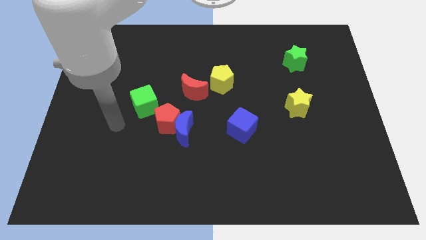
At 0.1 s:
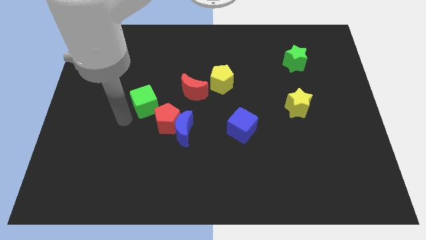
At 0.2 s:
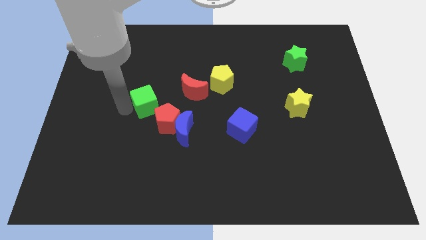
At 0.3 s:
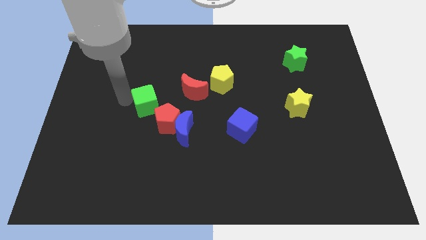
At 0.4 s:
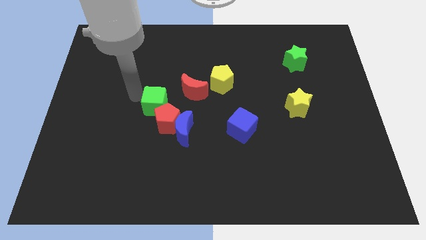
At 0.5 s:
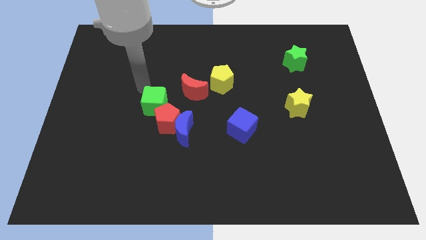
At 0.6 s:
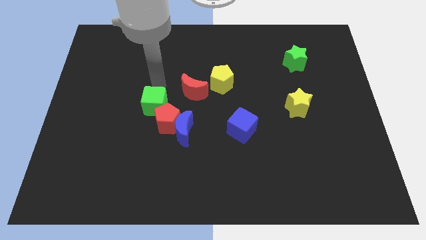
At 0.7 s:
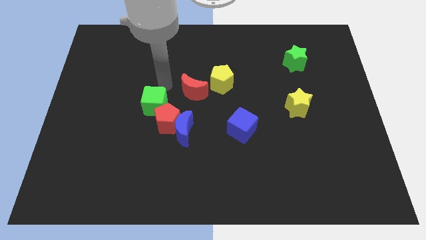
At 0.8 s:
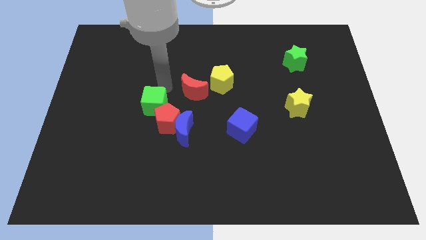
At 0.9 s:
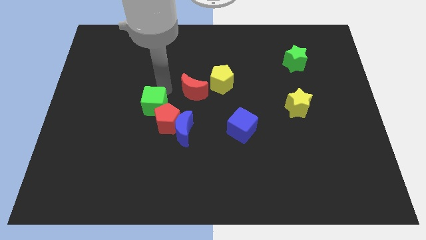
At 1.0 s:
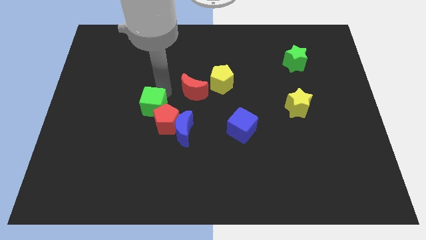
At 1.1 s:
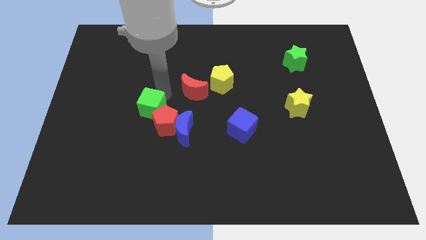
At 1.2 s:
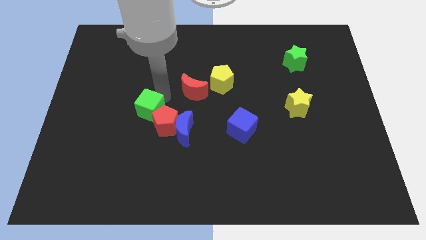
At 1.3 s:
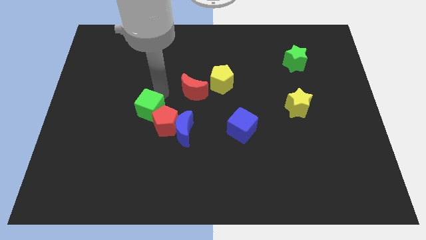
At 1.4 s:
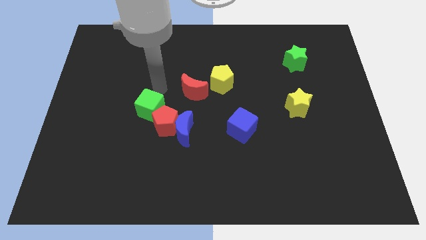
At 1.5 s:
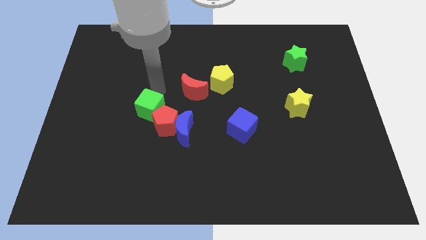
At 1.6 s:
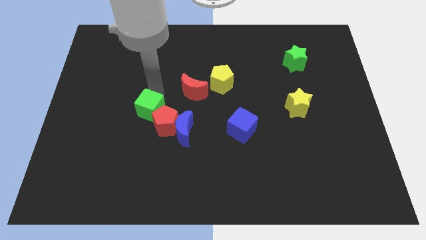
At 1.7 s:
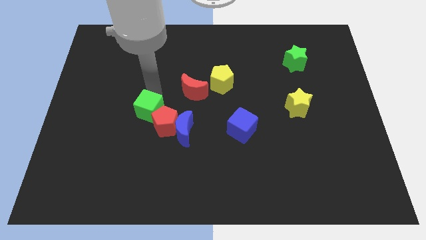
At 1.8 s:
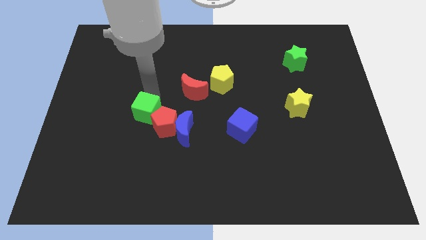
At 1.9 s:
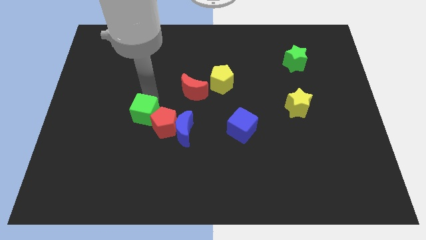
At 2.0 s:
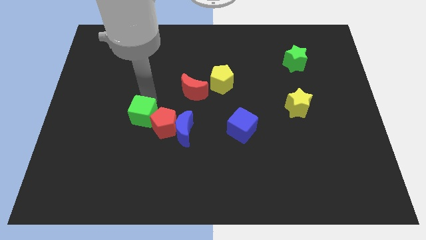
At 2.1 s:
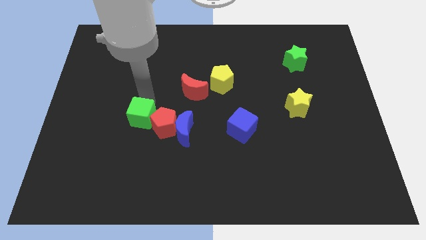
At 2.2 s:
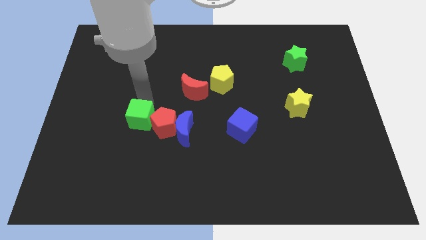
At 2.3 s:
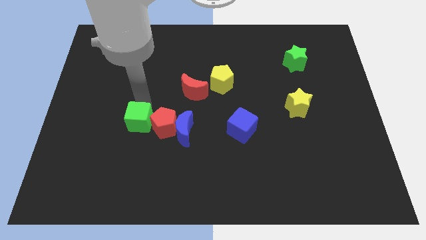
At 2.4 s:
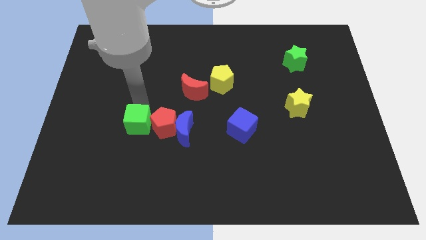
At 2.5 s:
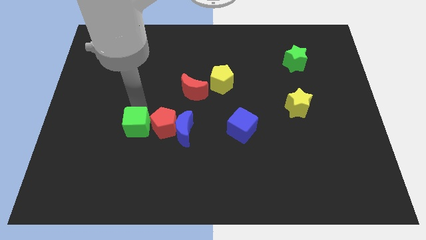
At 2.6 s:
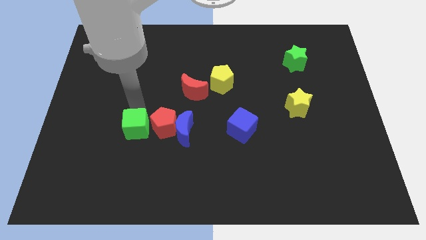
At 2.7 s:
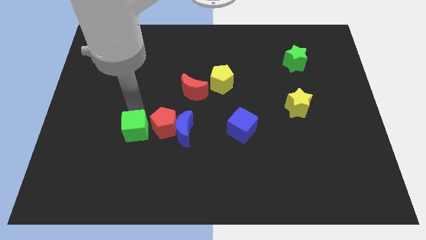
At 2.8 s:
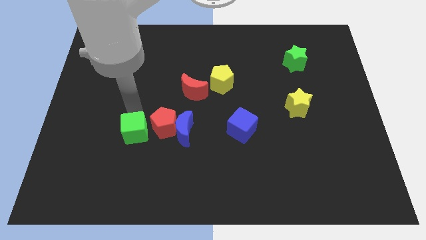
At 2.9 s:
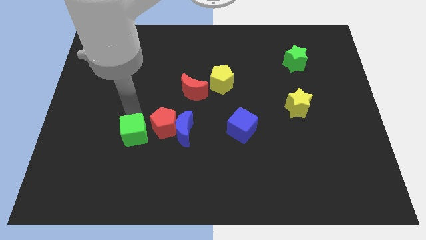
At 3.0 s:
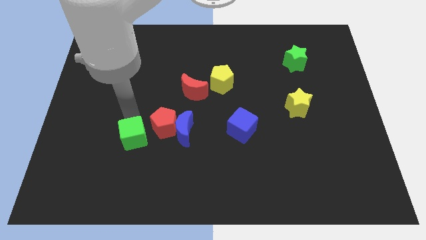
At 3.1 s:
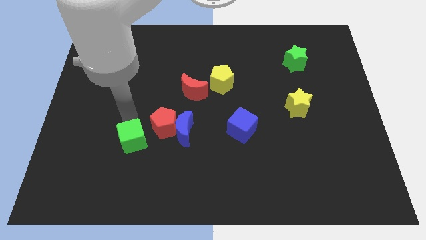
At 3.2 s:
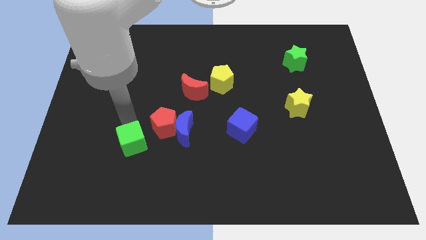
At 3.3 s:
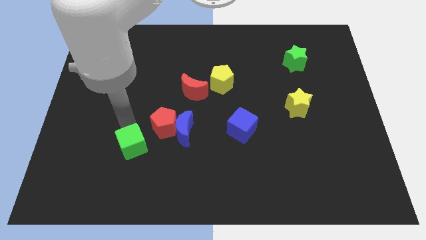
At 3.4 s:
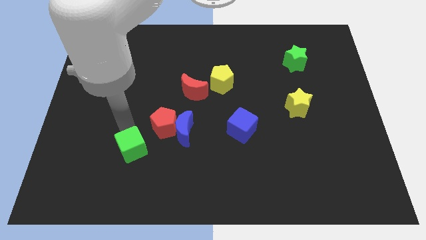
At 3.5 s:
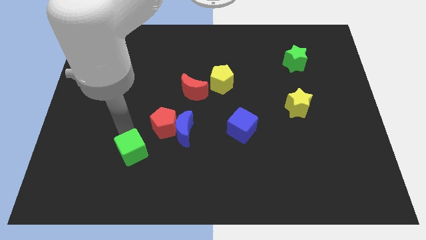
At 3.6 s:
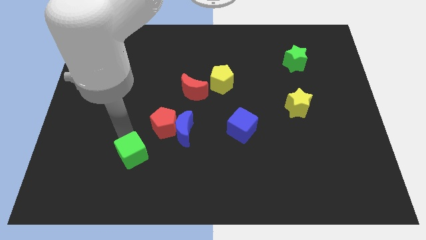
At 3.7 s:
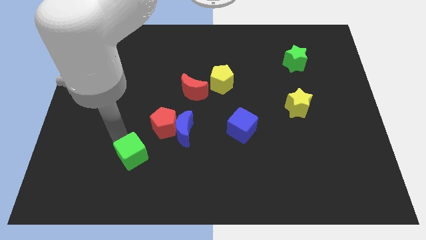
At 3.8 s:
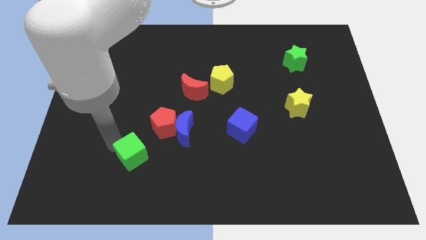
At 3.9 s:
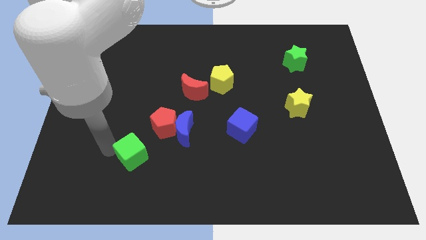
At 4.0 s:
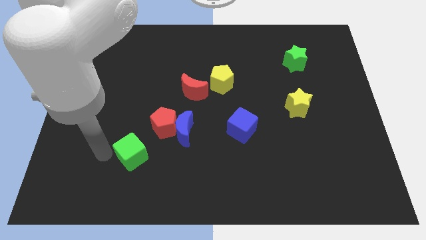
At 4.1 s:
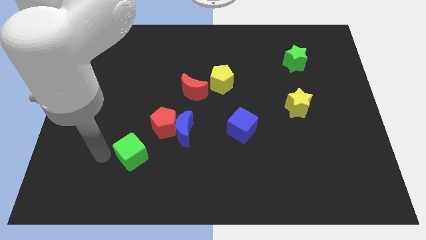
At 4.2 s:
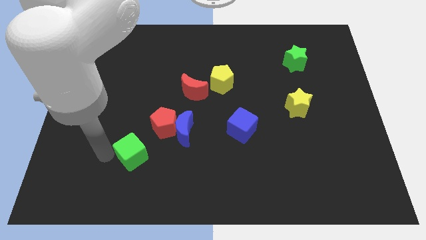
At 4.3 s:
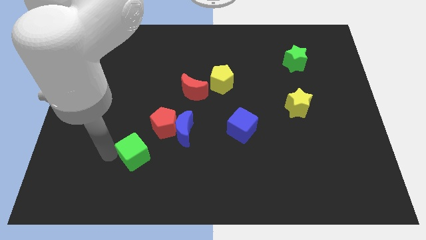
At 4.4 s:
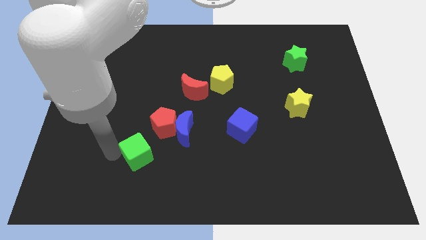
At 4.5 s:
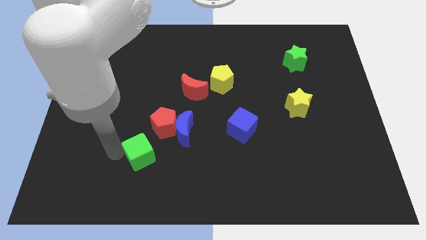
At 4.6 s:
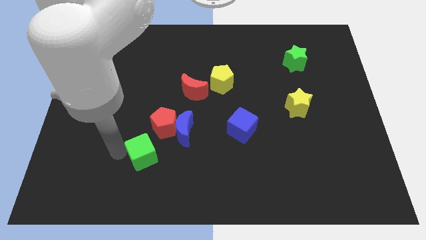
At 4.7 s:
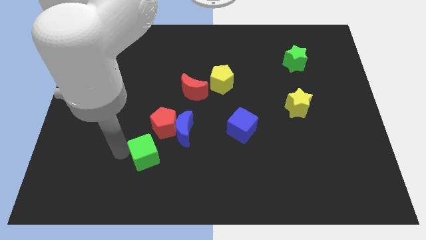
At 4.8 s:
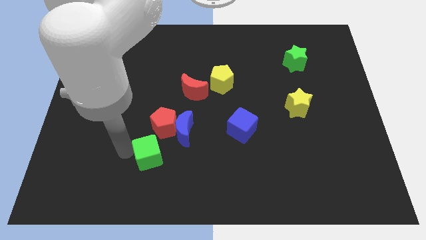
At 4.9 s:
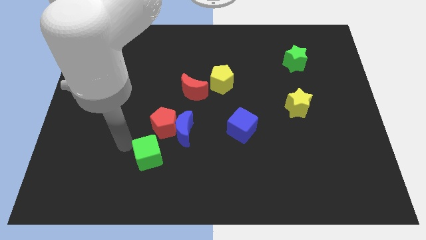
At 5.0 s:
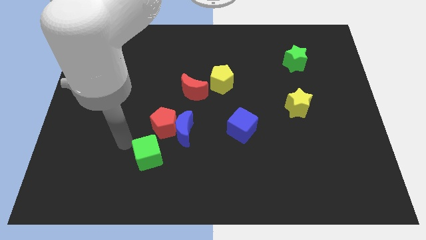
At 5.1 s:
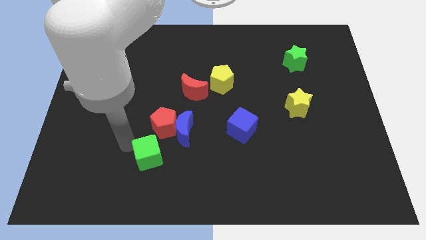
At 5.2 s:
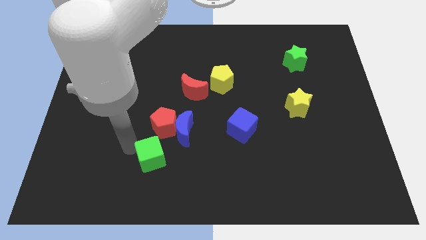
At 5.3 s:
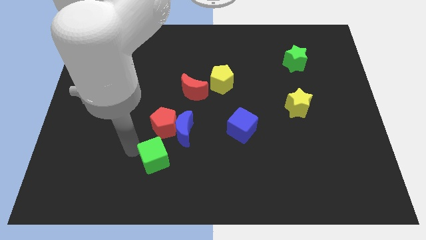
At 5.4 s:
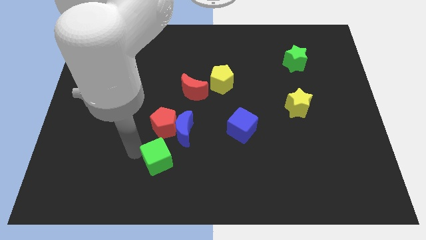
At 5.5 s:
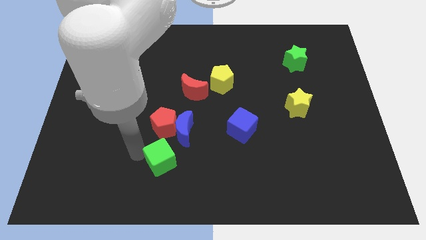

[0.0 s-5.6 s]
move the green cube to the bottom side of the blue moon

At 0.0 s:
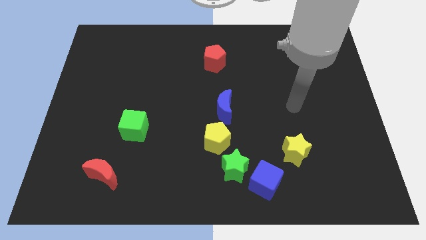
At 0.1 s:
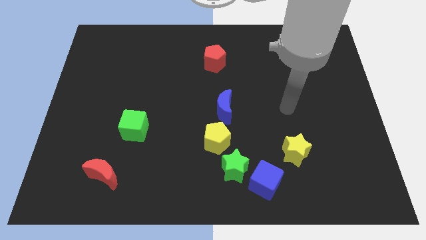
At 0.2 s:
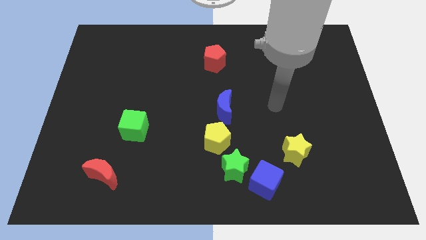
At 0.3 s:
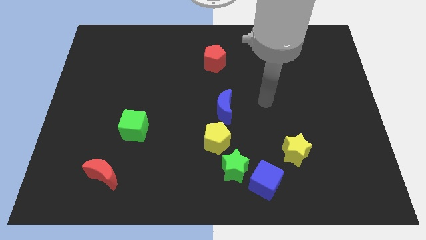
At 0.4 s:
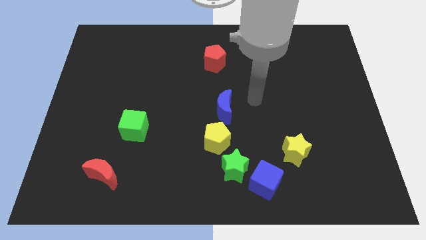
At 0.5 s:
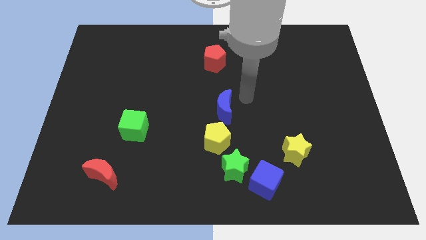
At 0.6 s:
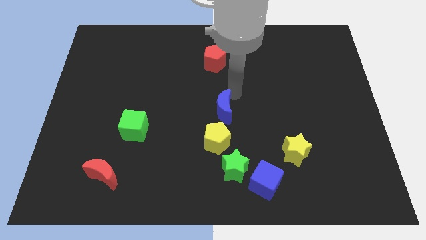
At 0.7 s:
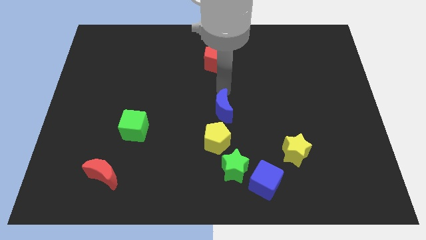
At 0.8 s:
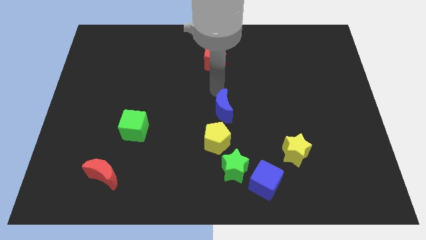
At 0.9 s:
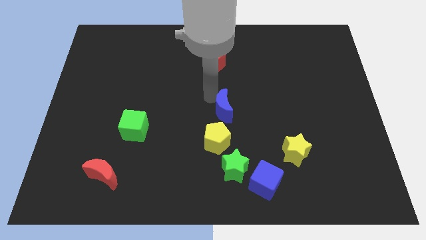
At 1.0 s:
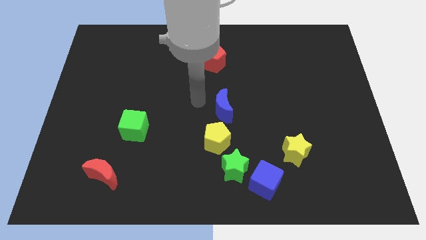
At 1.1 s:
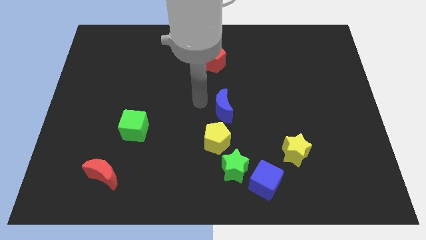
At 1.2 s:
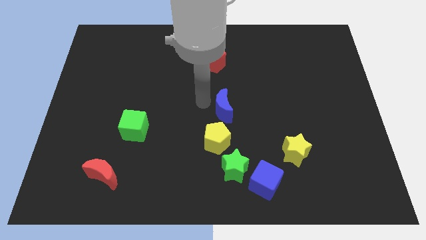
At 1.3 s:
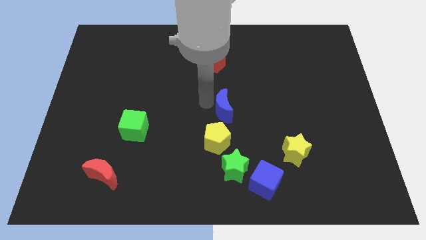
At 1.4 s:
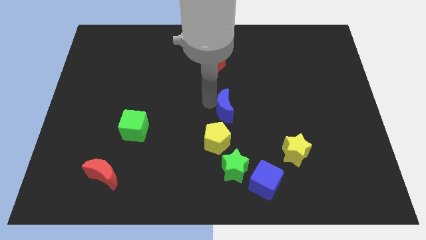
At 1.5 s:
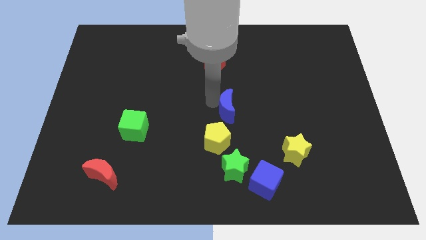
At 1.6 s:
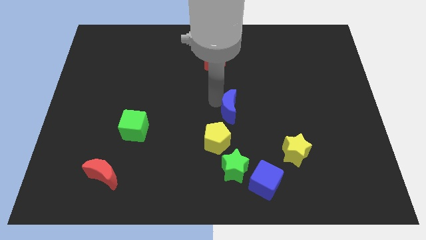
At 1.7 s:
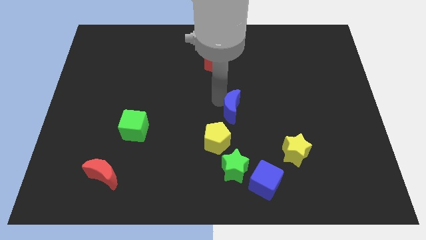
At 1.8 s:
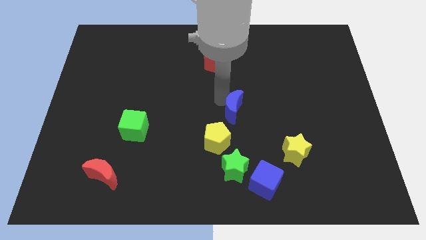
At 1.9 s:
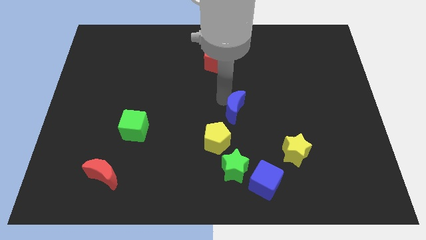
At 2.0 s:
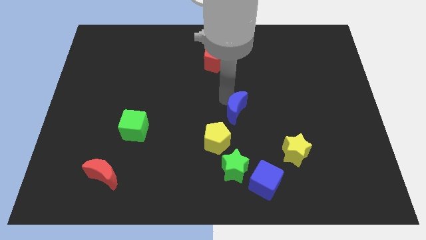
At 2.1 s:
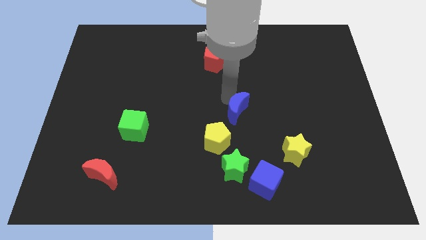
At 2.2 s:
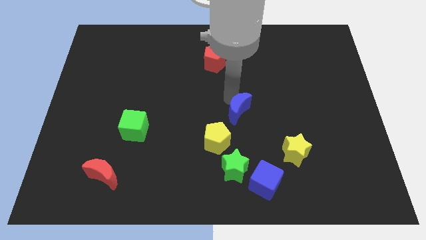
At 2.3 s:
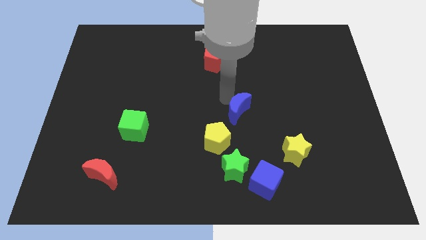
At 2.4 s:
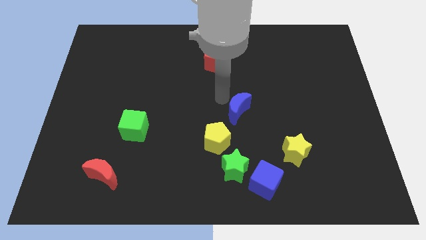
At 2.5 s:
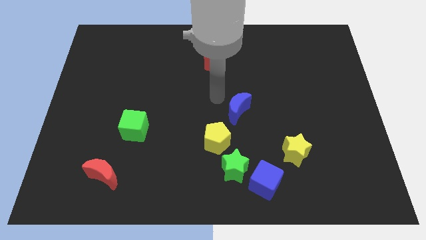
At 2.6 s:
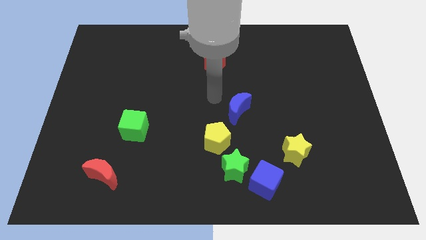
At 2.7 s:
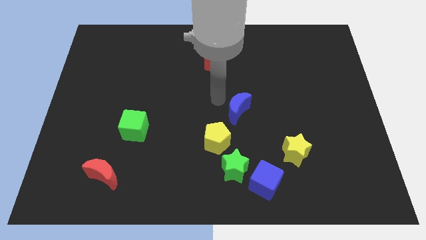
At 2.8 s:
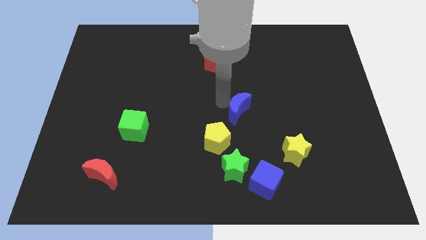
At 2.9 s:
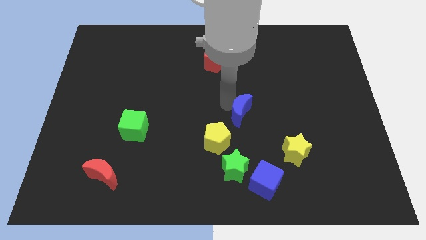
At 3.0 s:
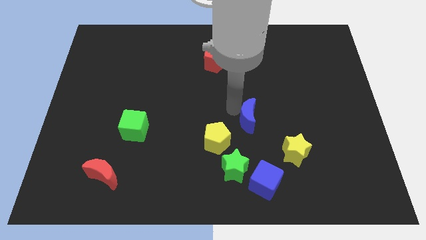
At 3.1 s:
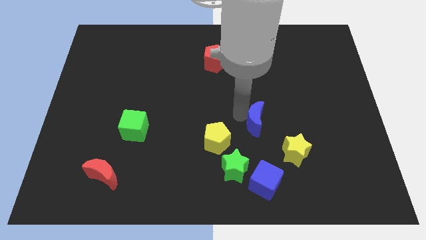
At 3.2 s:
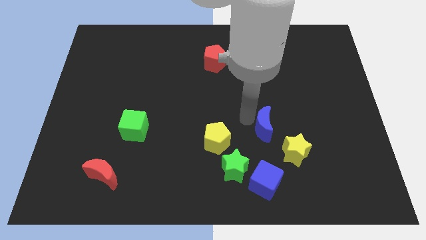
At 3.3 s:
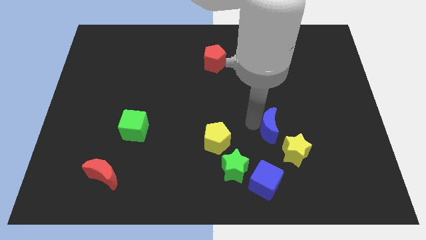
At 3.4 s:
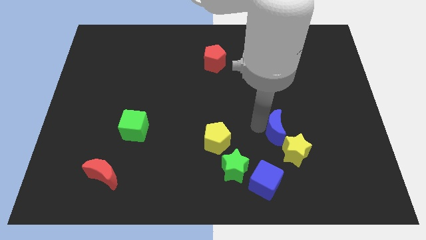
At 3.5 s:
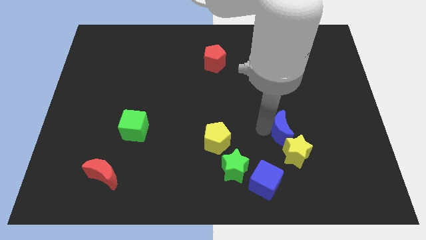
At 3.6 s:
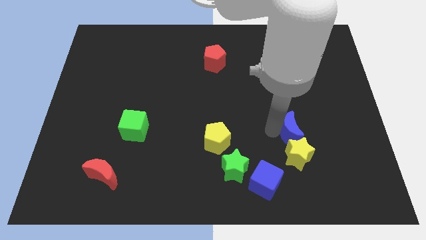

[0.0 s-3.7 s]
put the blue moon diagonally up and to the right of the yellow star
